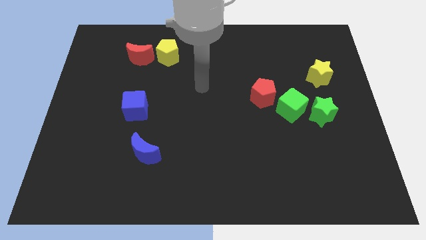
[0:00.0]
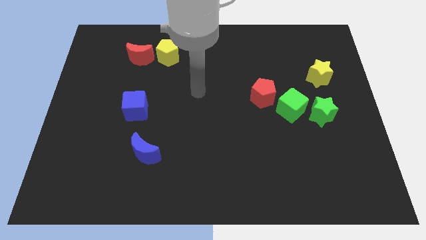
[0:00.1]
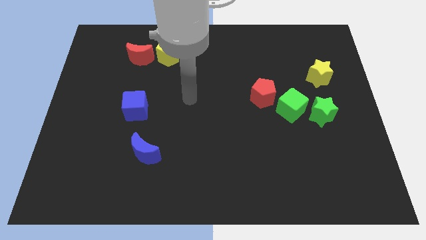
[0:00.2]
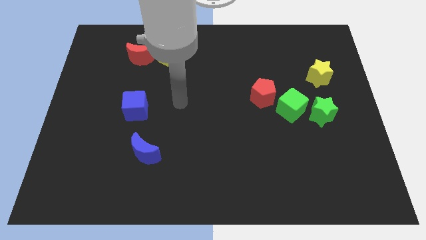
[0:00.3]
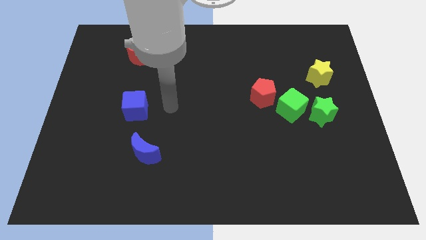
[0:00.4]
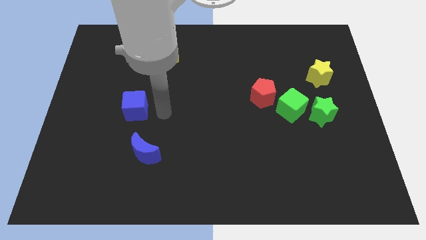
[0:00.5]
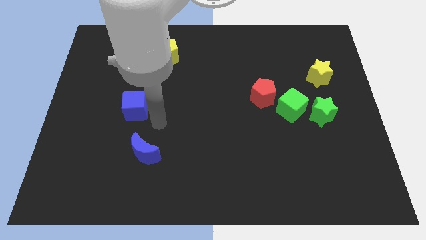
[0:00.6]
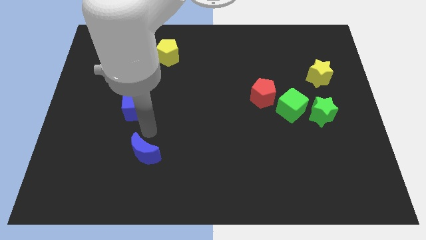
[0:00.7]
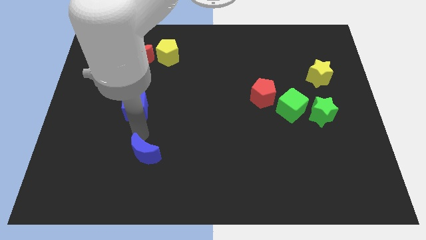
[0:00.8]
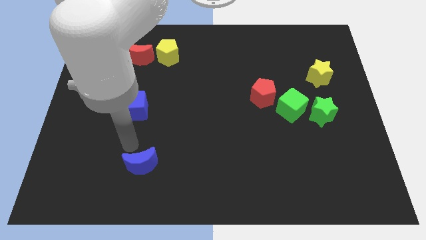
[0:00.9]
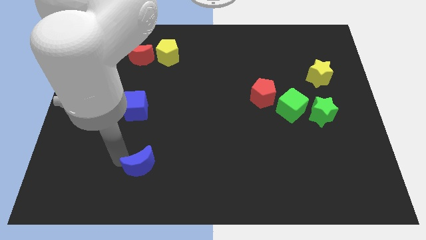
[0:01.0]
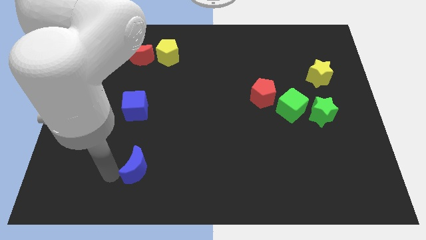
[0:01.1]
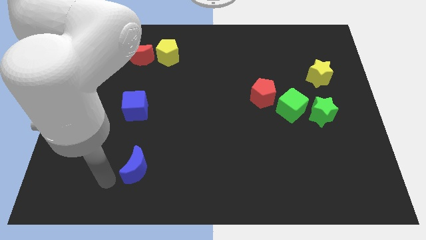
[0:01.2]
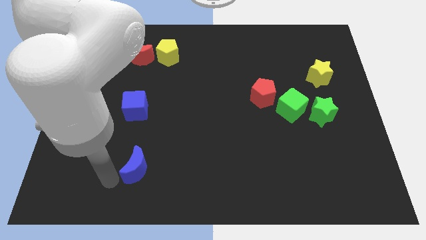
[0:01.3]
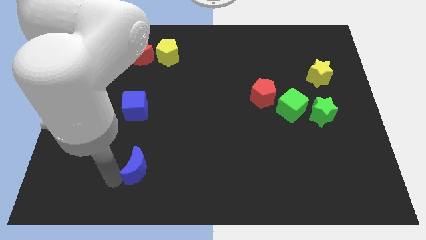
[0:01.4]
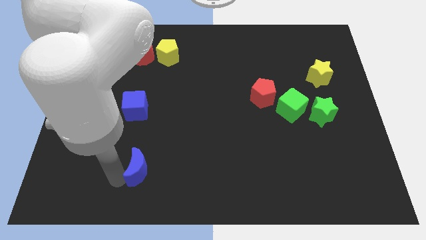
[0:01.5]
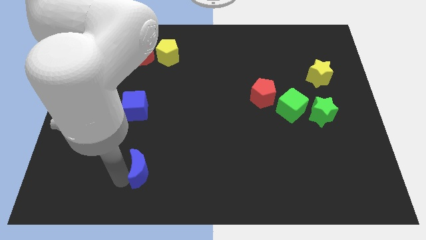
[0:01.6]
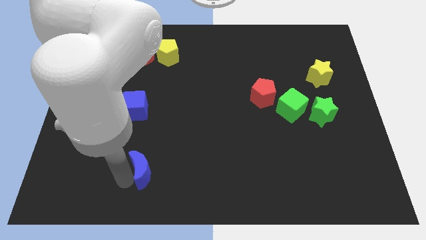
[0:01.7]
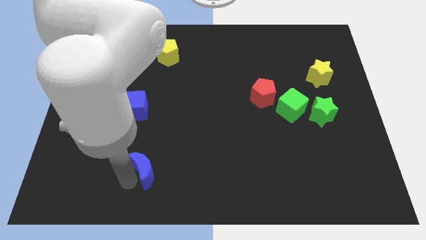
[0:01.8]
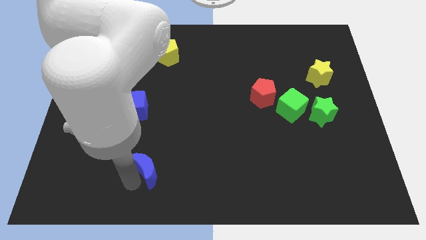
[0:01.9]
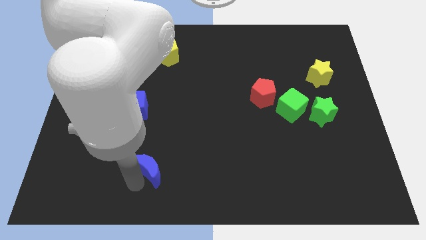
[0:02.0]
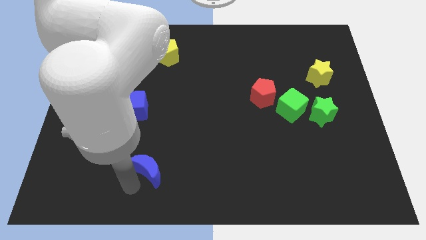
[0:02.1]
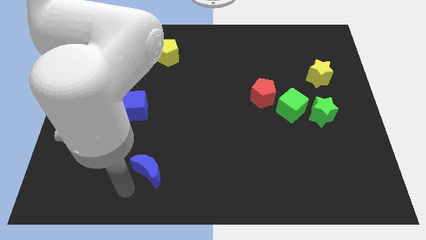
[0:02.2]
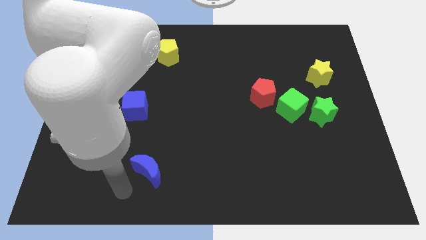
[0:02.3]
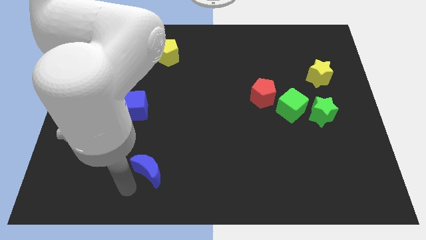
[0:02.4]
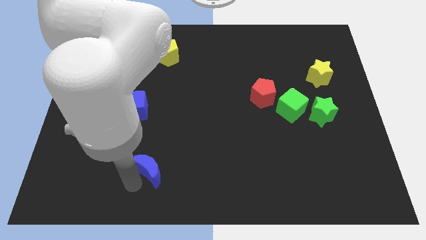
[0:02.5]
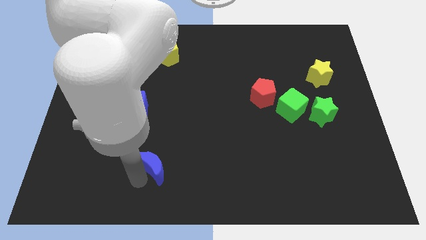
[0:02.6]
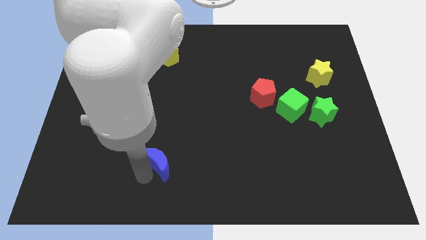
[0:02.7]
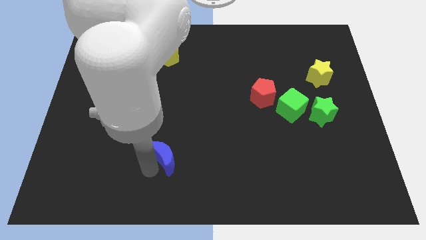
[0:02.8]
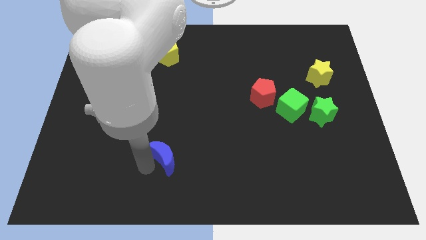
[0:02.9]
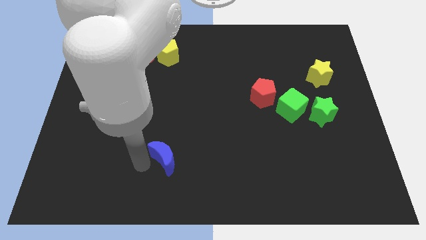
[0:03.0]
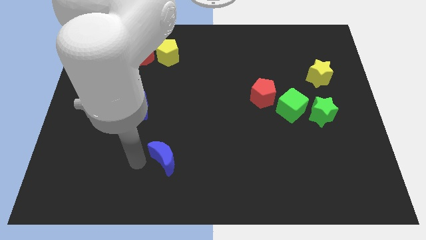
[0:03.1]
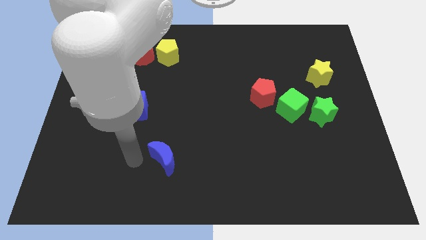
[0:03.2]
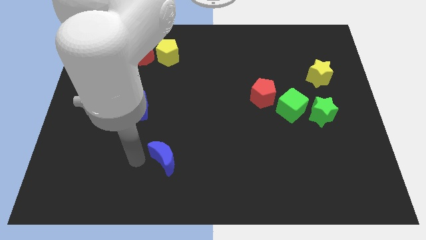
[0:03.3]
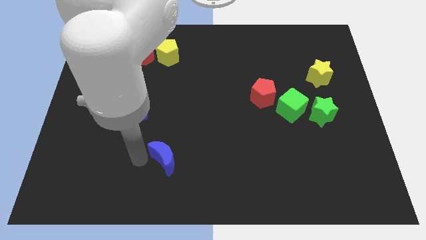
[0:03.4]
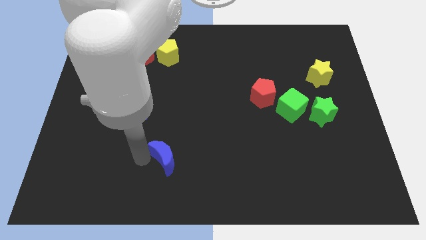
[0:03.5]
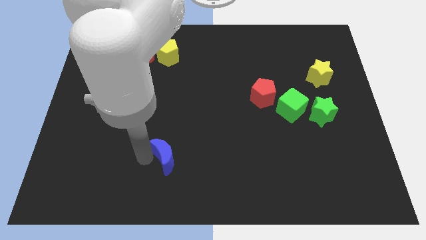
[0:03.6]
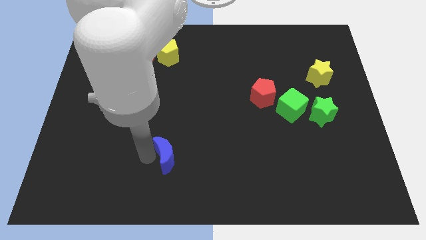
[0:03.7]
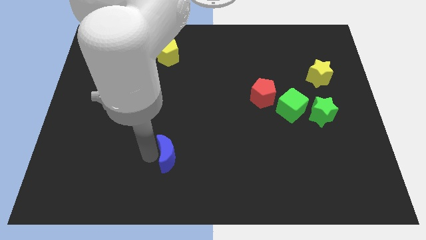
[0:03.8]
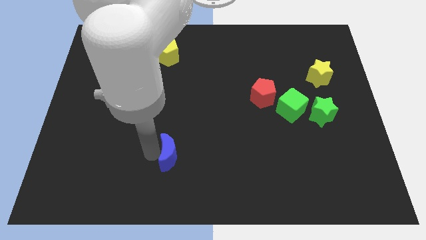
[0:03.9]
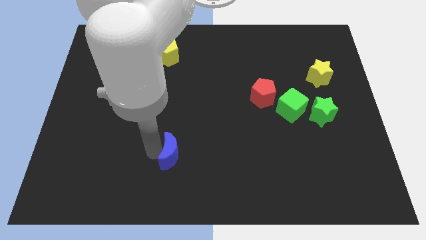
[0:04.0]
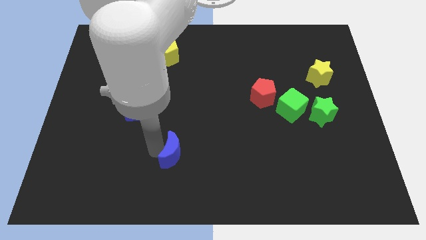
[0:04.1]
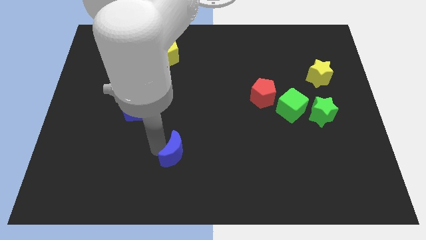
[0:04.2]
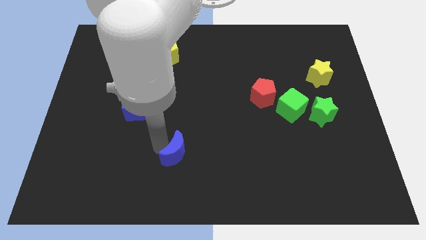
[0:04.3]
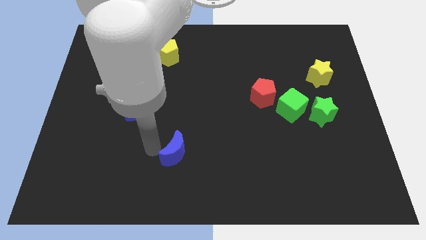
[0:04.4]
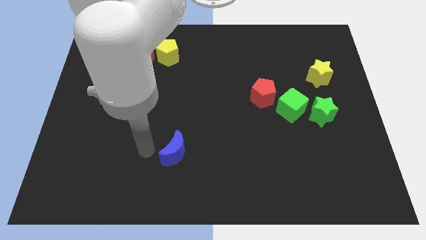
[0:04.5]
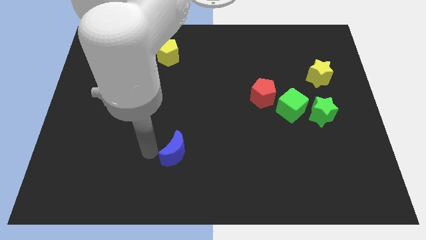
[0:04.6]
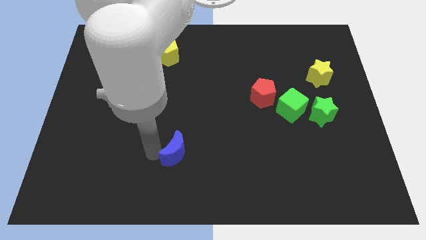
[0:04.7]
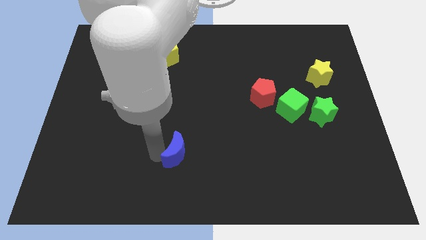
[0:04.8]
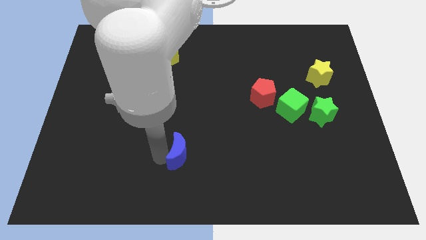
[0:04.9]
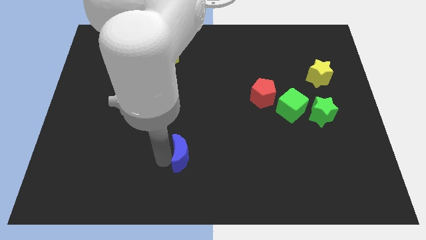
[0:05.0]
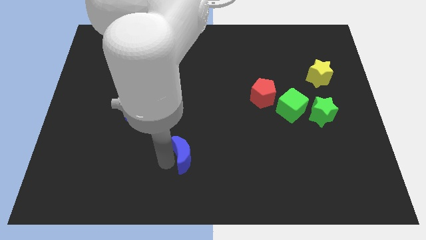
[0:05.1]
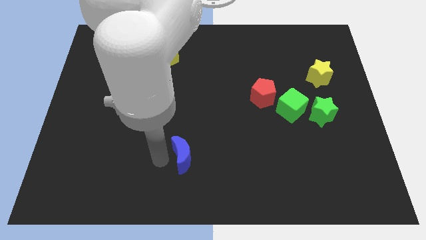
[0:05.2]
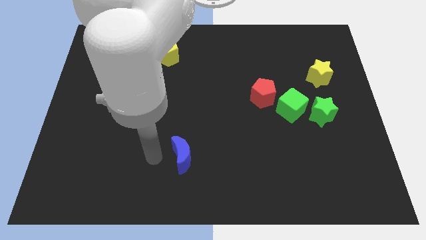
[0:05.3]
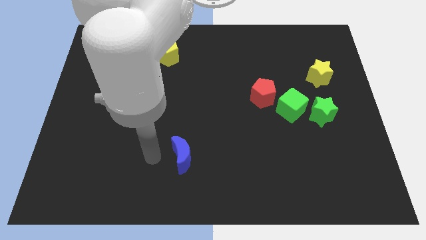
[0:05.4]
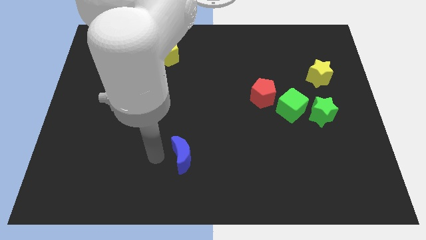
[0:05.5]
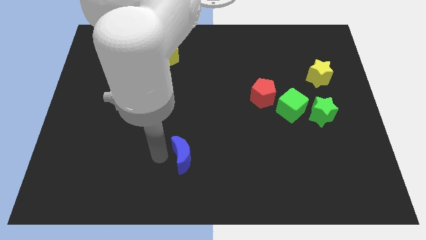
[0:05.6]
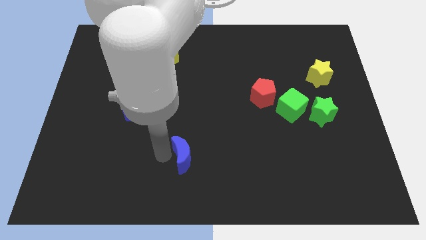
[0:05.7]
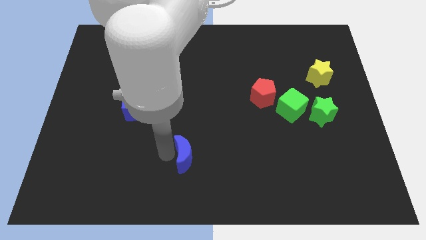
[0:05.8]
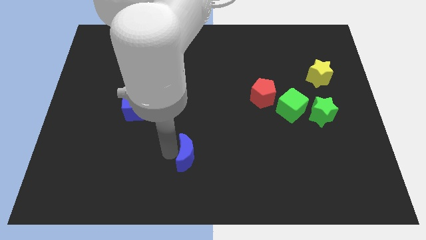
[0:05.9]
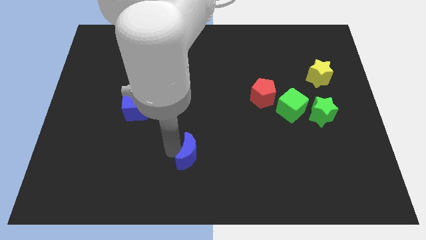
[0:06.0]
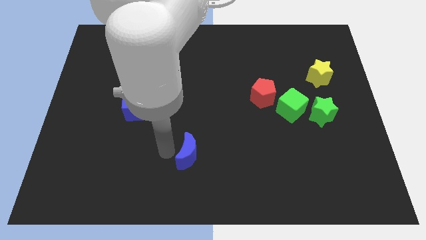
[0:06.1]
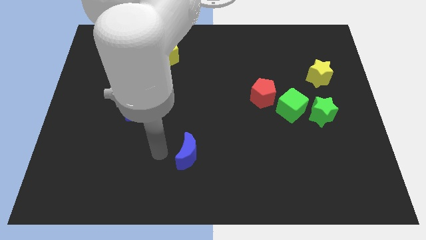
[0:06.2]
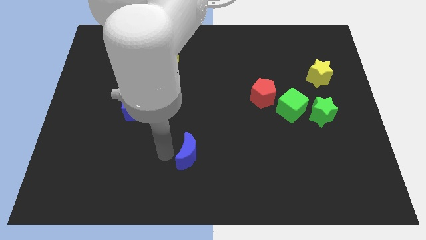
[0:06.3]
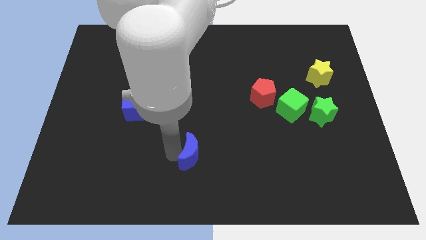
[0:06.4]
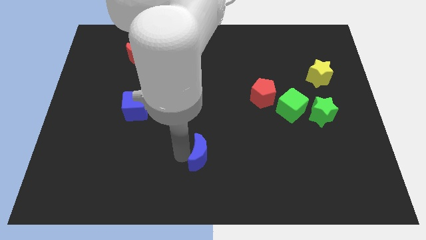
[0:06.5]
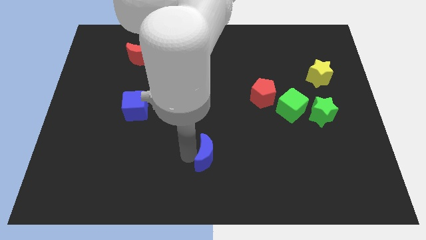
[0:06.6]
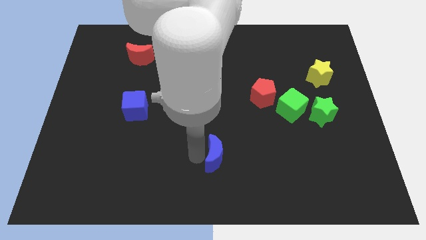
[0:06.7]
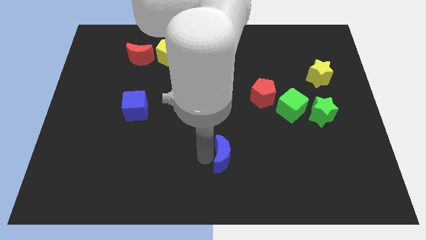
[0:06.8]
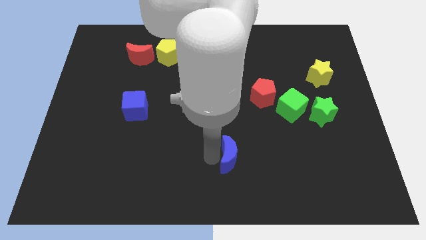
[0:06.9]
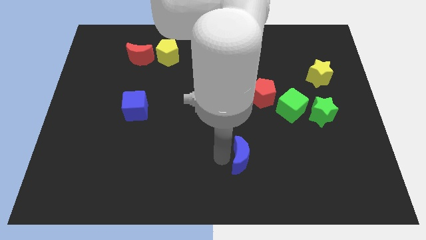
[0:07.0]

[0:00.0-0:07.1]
push the blue moon to the right

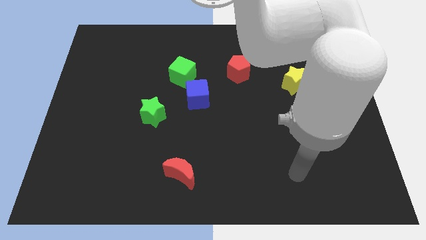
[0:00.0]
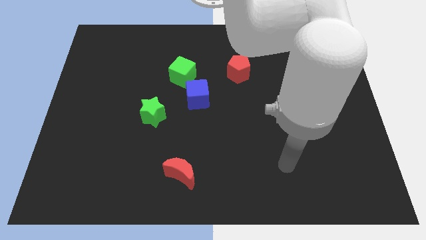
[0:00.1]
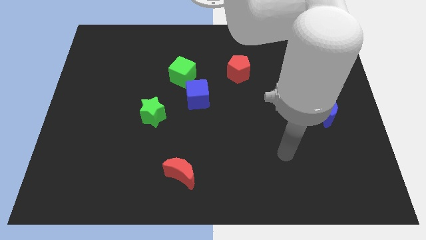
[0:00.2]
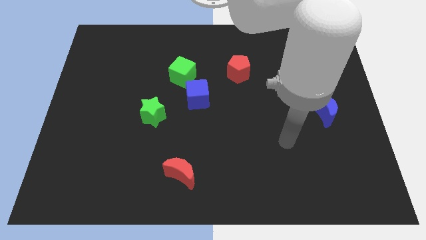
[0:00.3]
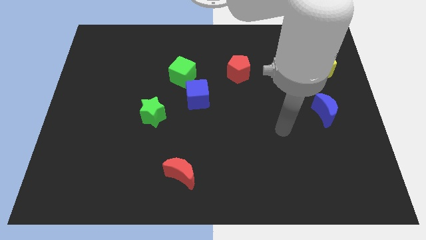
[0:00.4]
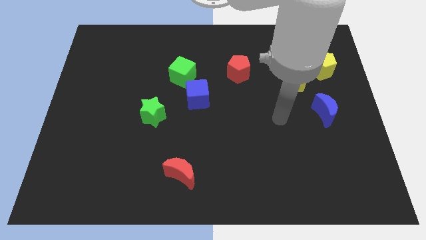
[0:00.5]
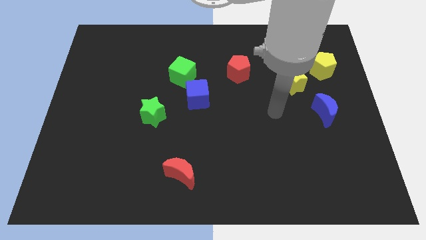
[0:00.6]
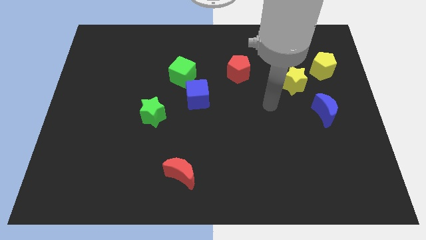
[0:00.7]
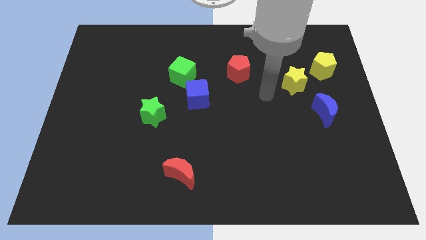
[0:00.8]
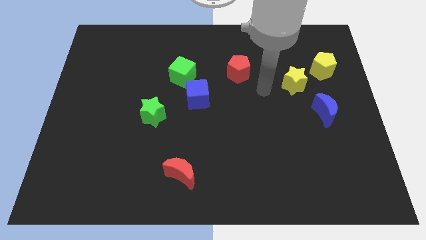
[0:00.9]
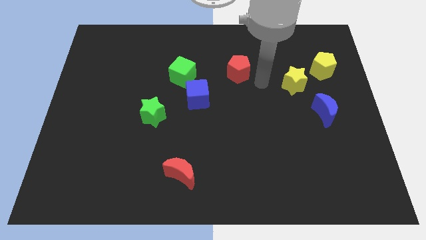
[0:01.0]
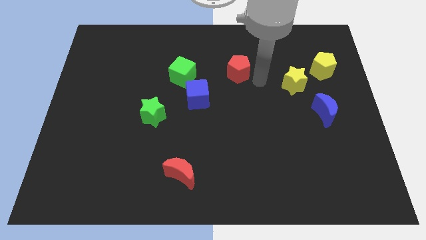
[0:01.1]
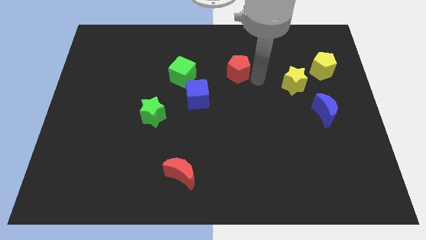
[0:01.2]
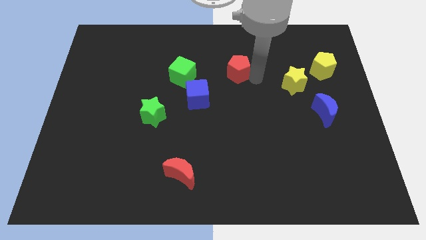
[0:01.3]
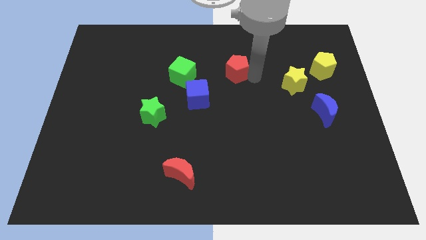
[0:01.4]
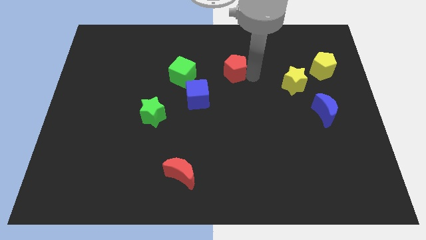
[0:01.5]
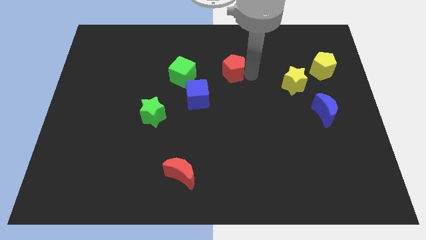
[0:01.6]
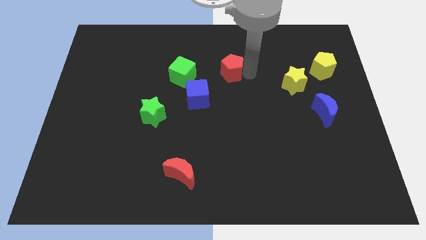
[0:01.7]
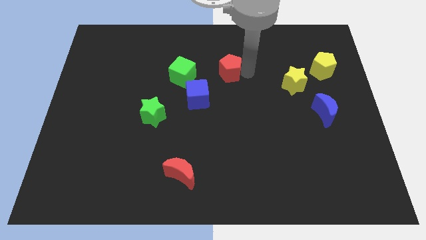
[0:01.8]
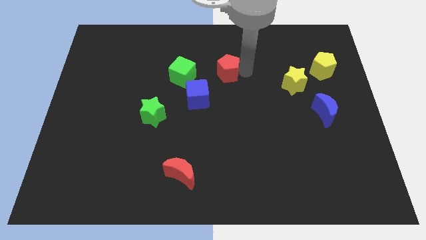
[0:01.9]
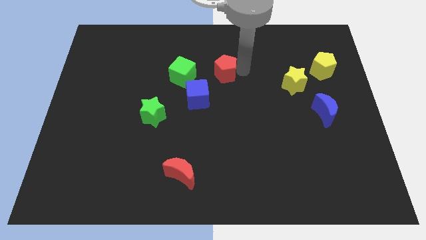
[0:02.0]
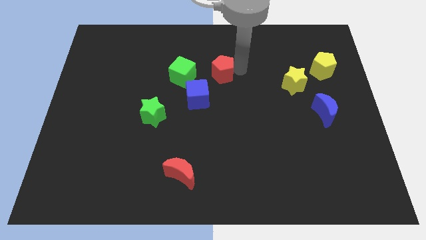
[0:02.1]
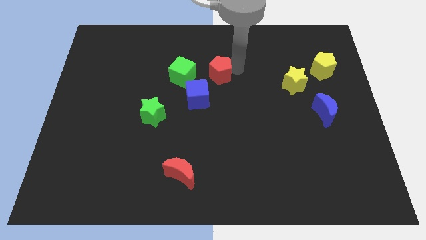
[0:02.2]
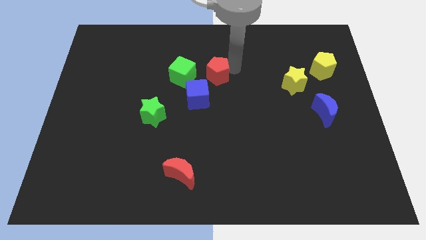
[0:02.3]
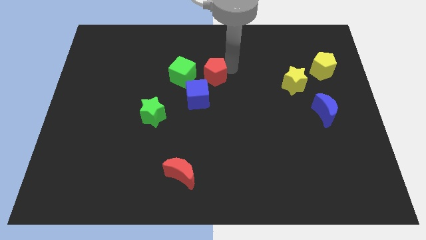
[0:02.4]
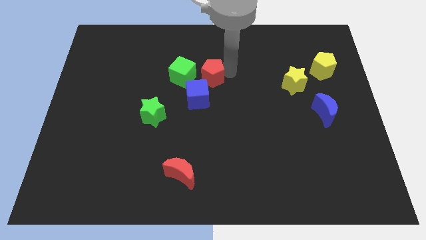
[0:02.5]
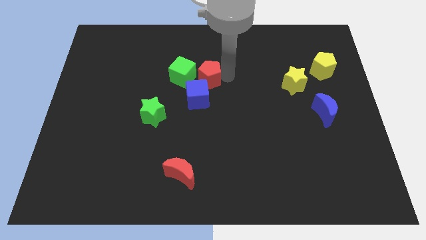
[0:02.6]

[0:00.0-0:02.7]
slide the red pentagon a little bit left
